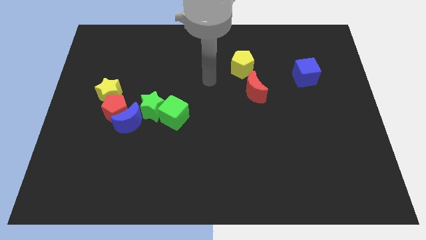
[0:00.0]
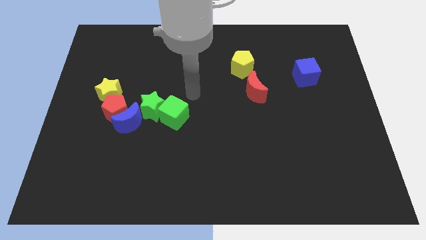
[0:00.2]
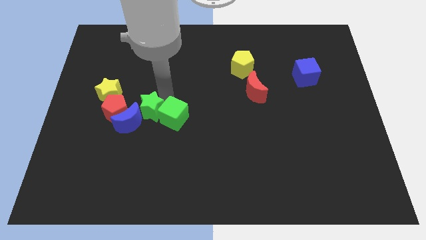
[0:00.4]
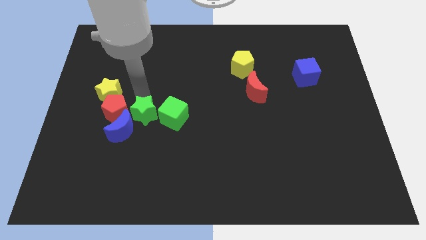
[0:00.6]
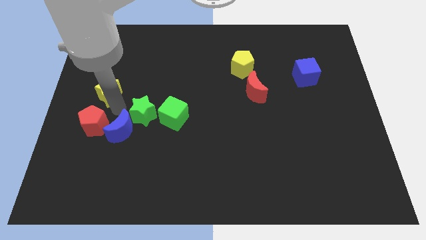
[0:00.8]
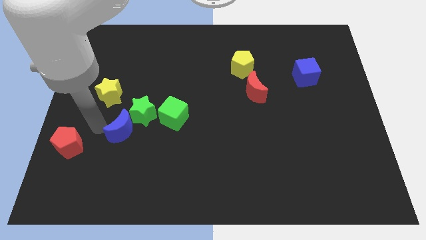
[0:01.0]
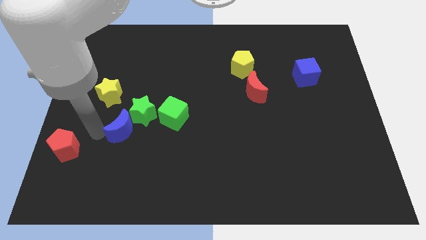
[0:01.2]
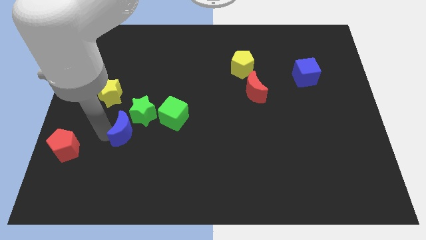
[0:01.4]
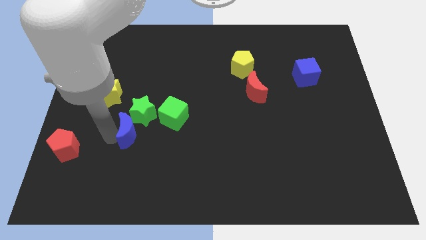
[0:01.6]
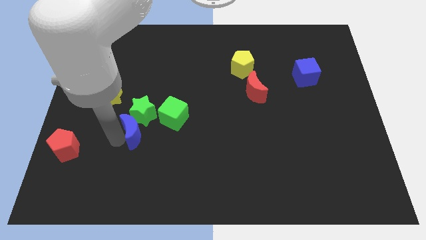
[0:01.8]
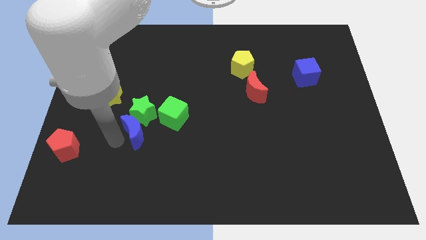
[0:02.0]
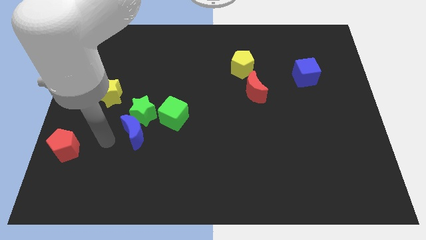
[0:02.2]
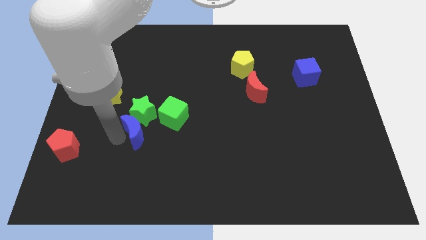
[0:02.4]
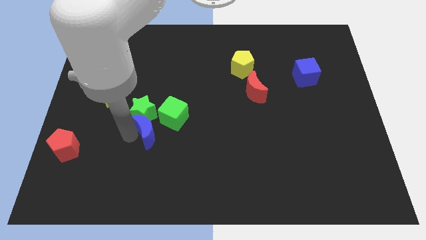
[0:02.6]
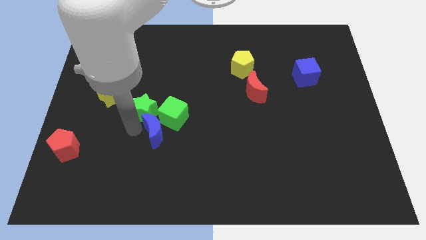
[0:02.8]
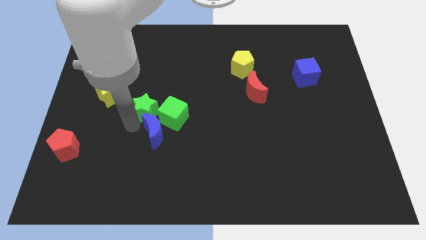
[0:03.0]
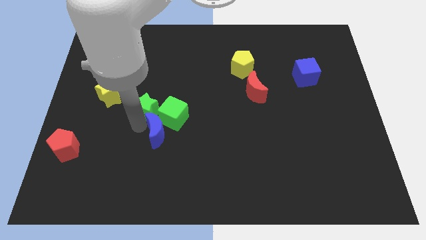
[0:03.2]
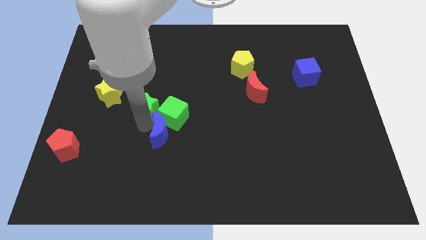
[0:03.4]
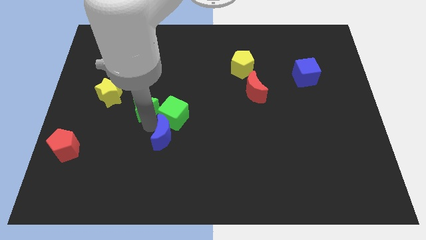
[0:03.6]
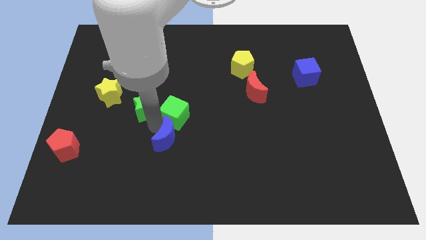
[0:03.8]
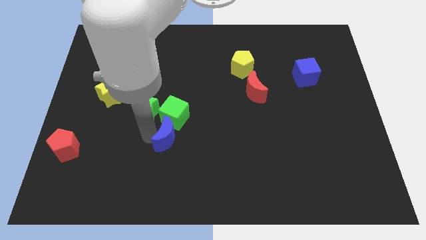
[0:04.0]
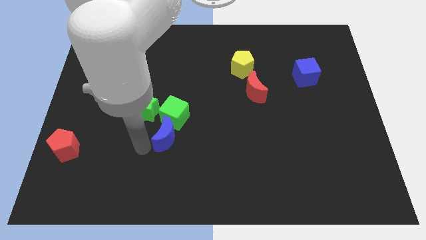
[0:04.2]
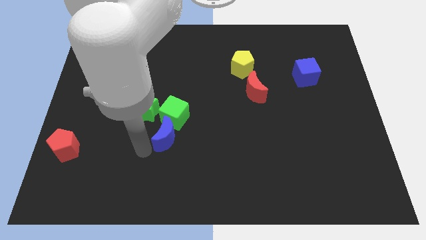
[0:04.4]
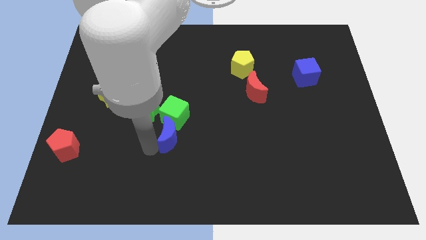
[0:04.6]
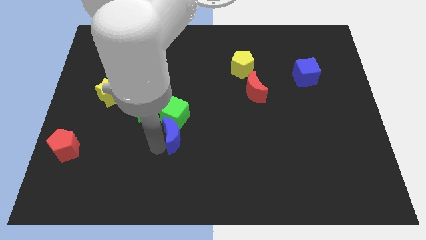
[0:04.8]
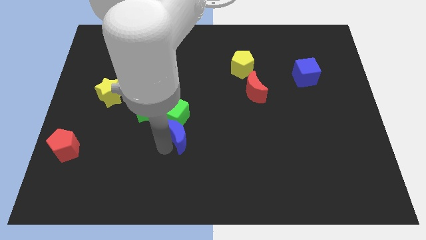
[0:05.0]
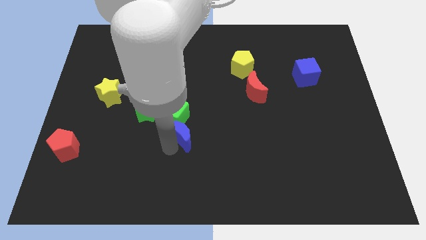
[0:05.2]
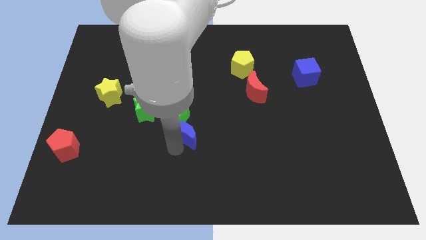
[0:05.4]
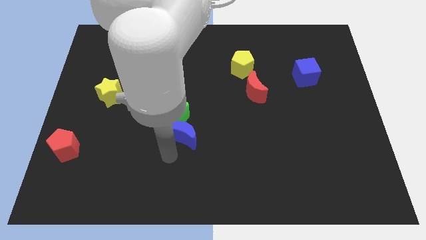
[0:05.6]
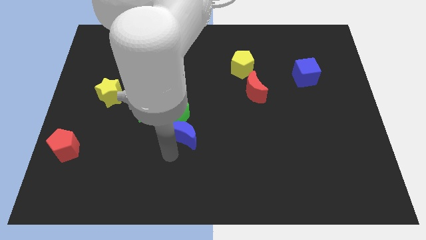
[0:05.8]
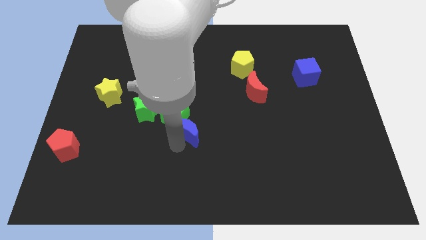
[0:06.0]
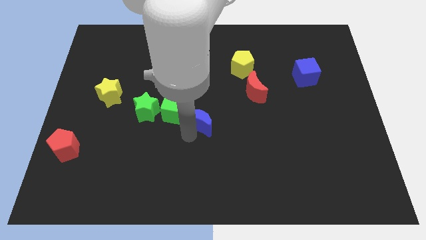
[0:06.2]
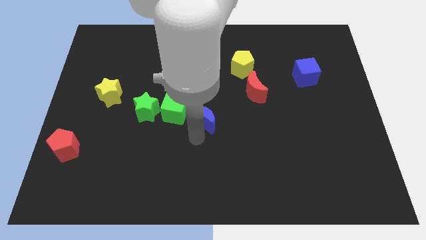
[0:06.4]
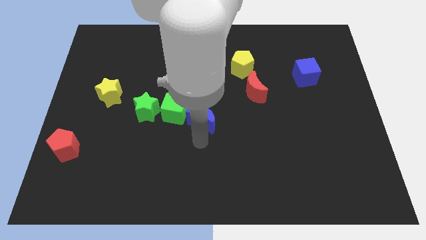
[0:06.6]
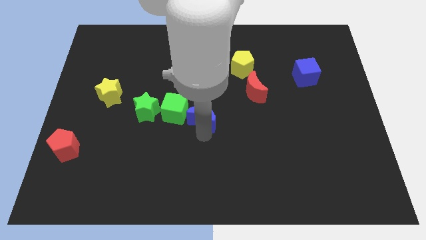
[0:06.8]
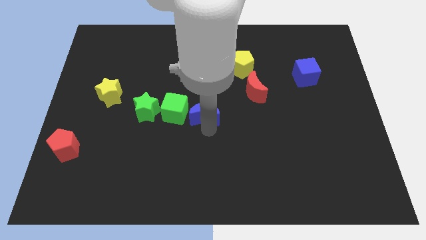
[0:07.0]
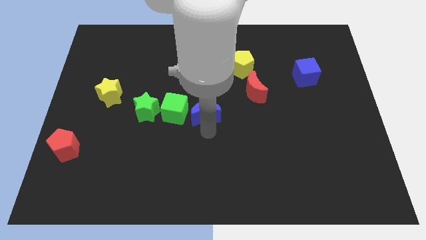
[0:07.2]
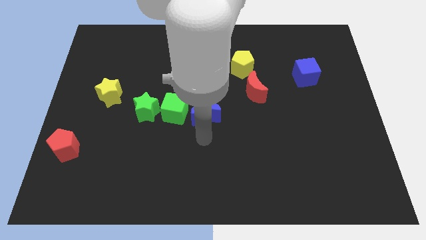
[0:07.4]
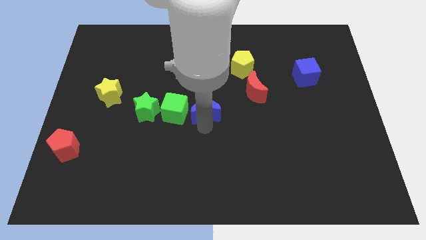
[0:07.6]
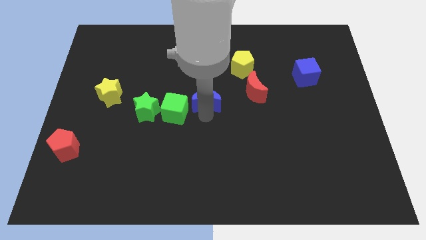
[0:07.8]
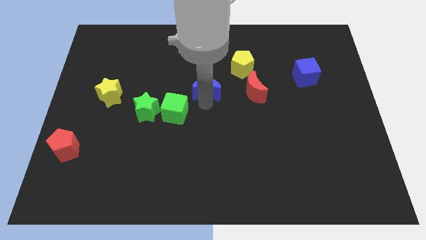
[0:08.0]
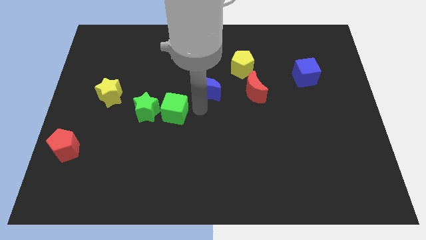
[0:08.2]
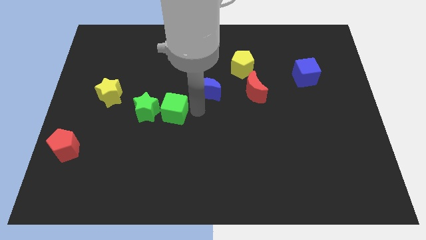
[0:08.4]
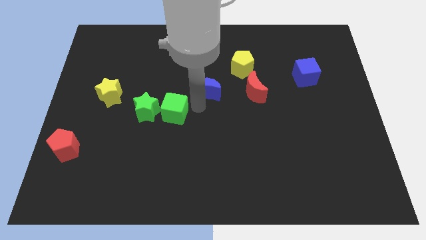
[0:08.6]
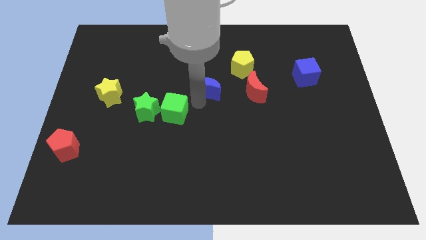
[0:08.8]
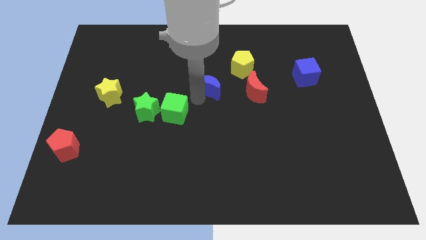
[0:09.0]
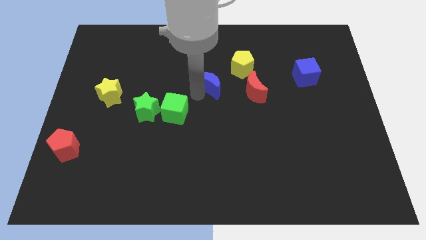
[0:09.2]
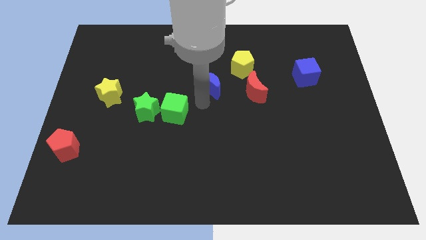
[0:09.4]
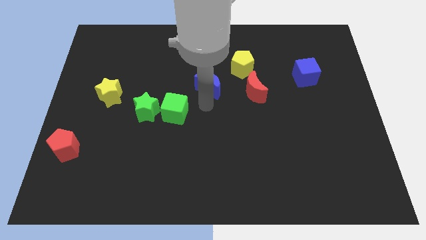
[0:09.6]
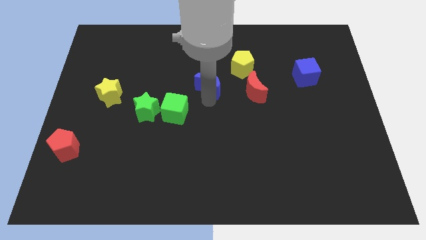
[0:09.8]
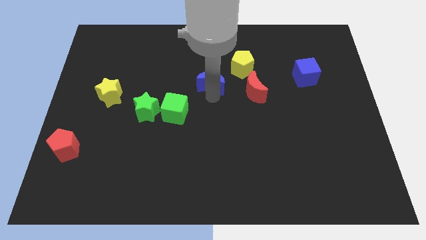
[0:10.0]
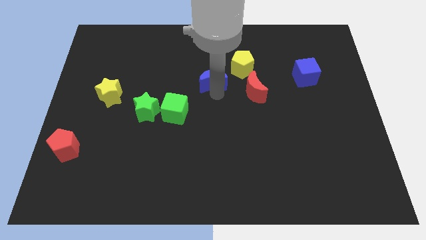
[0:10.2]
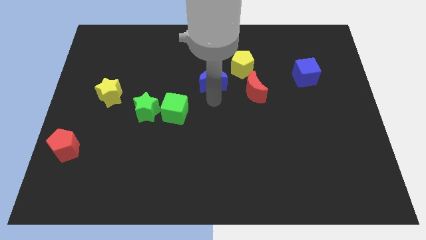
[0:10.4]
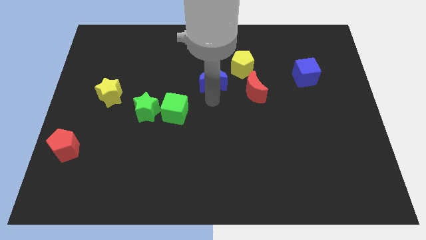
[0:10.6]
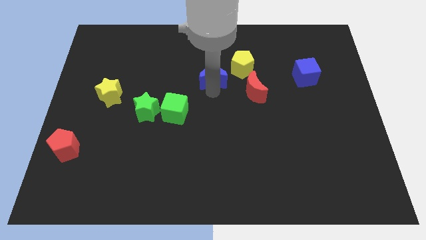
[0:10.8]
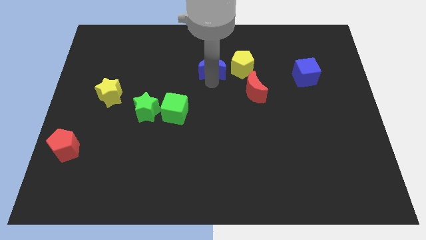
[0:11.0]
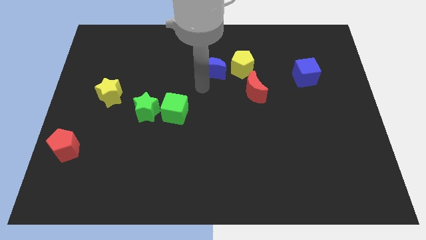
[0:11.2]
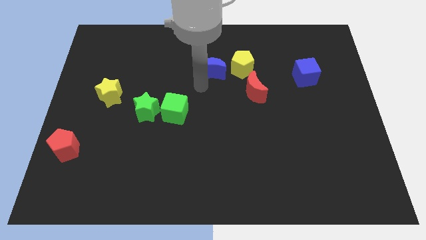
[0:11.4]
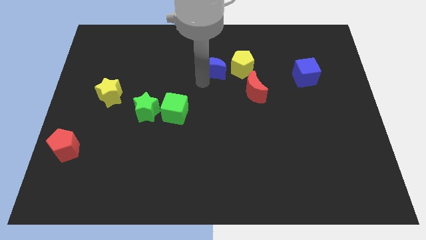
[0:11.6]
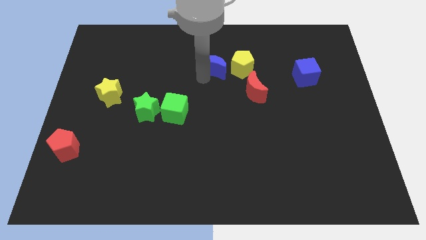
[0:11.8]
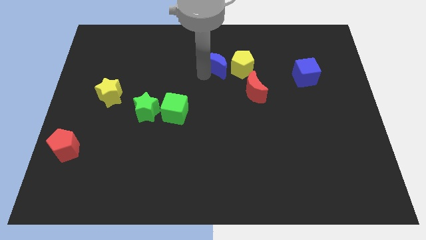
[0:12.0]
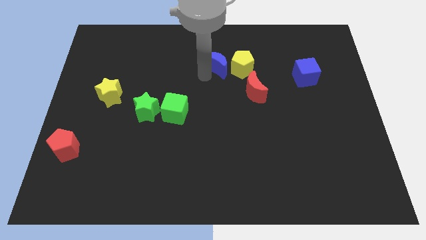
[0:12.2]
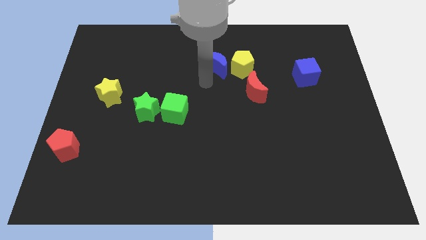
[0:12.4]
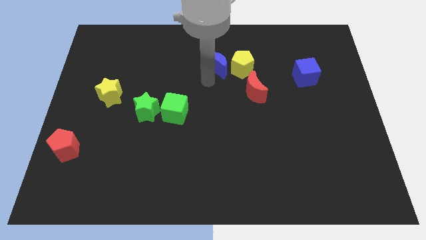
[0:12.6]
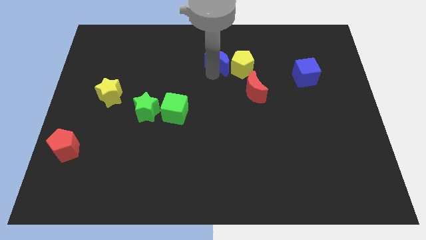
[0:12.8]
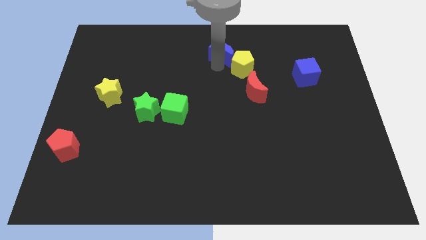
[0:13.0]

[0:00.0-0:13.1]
push the blue moon to the top
